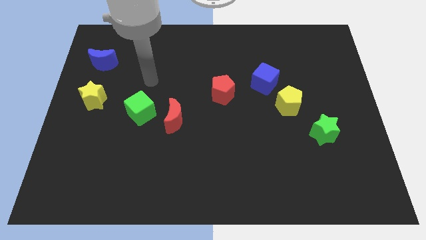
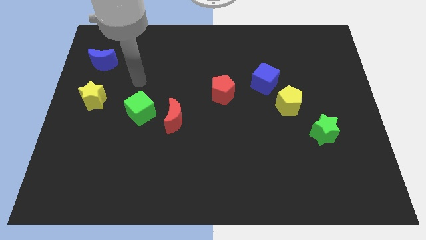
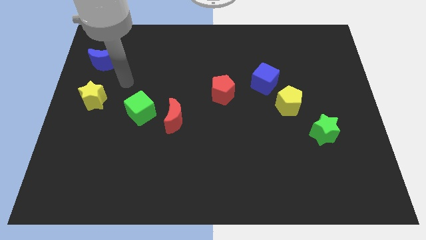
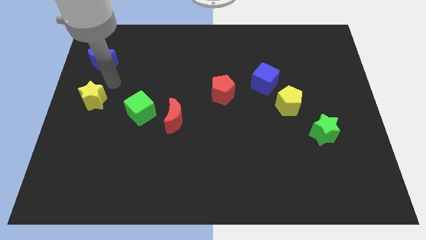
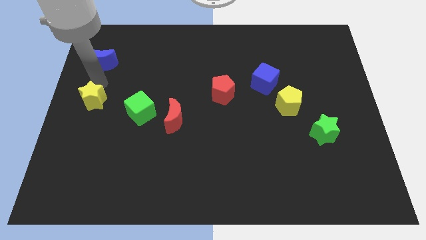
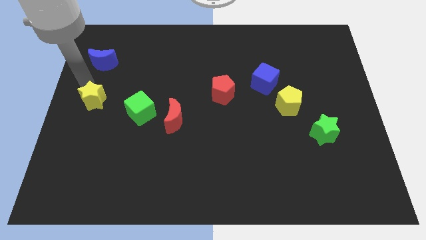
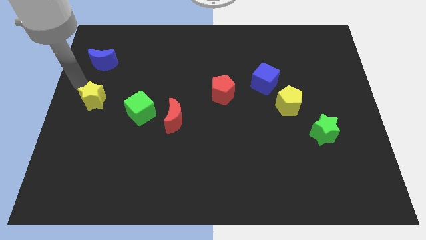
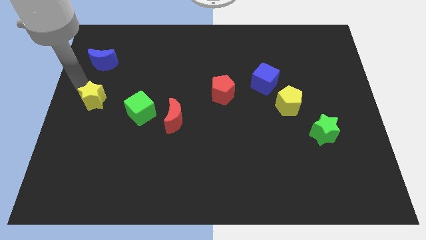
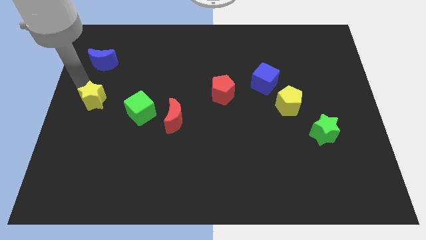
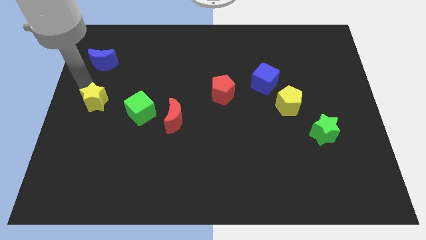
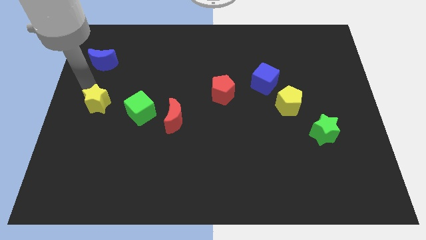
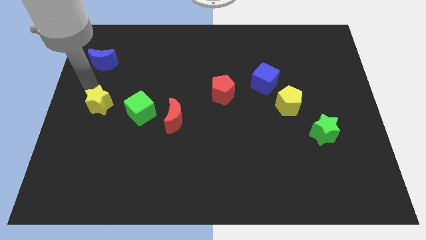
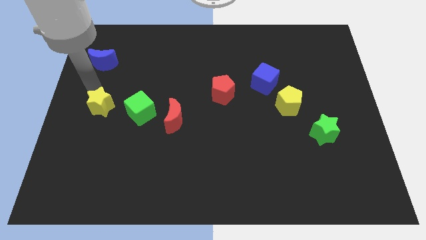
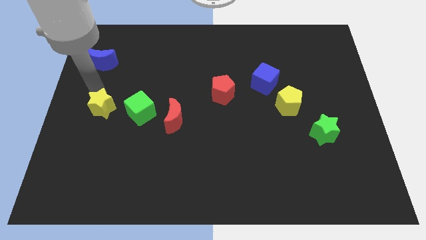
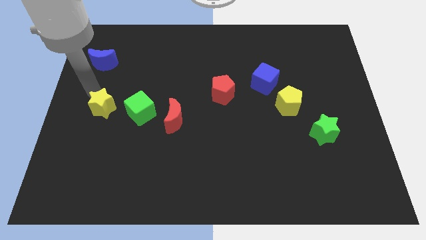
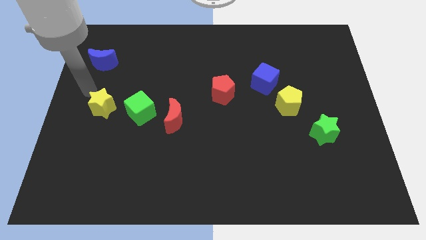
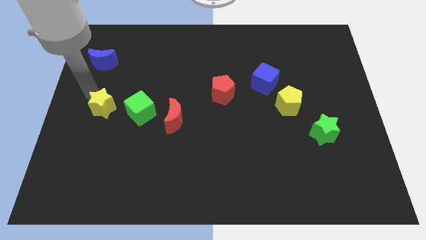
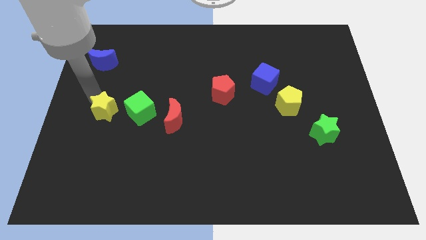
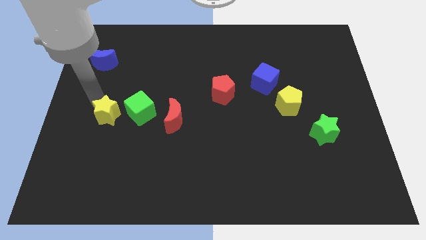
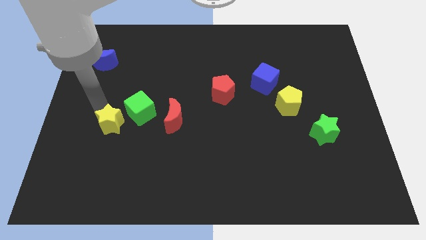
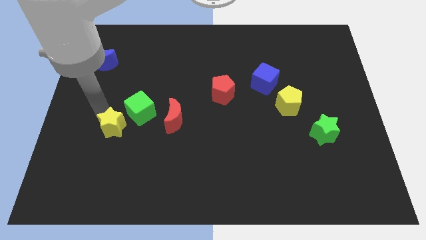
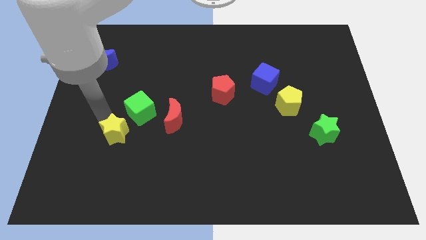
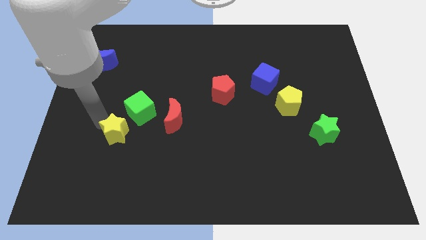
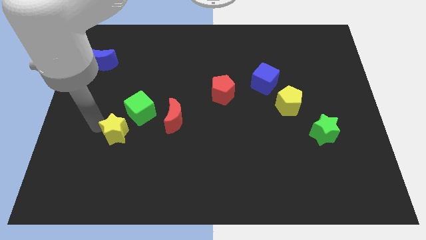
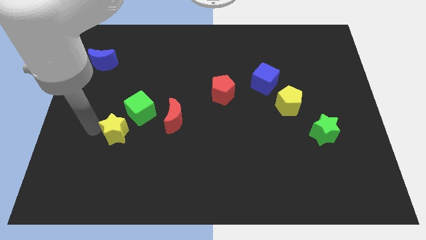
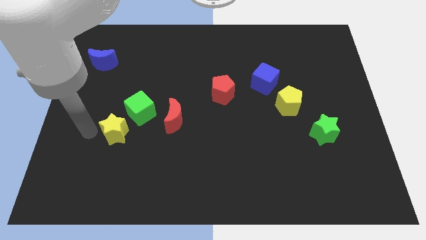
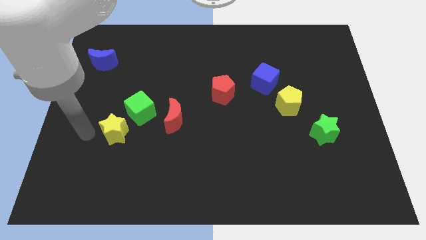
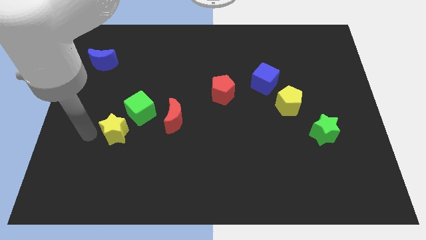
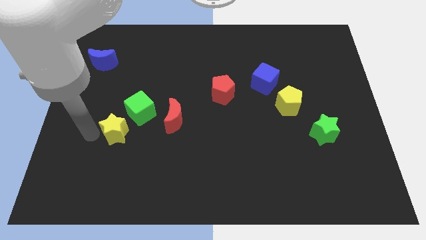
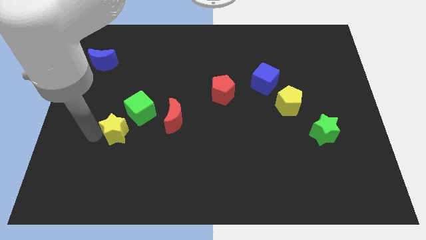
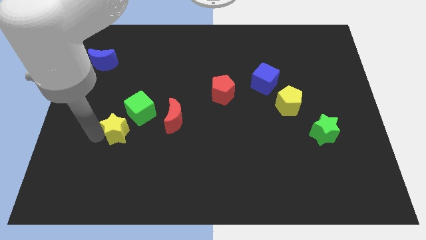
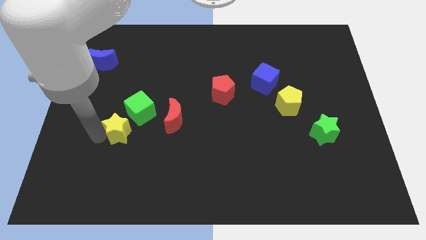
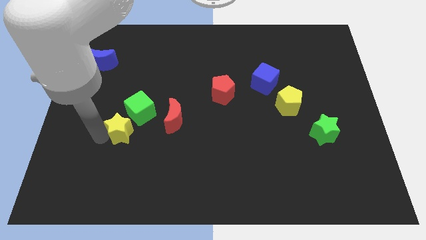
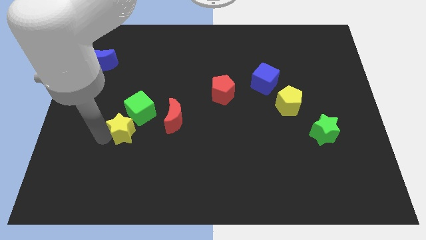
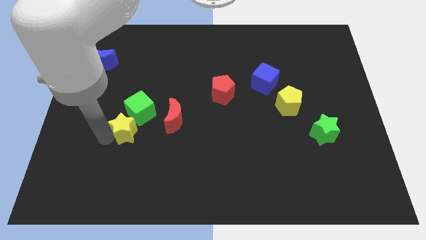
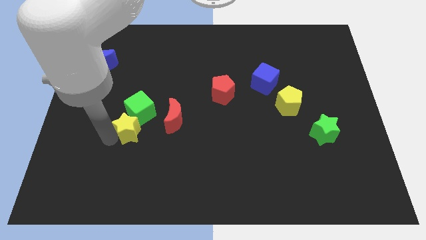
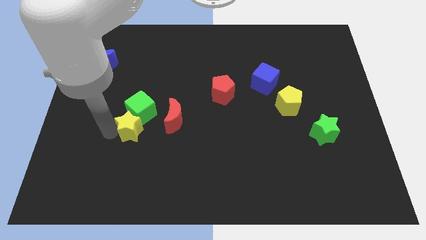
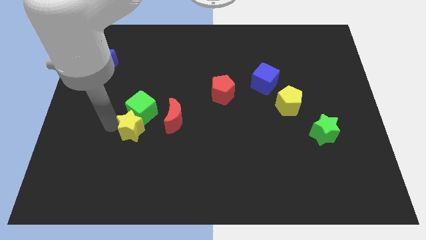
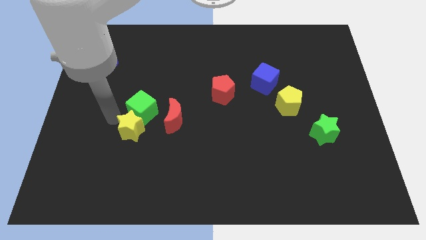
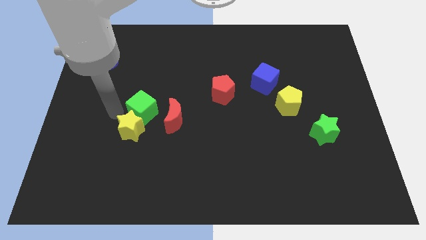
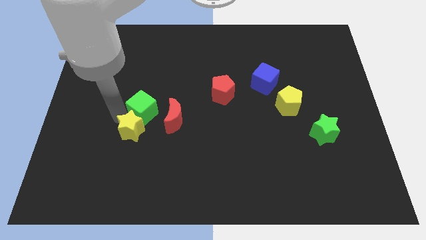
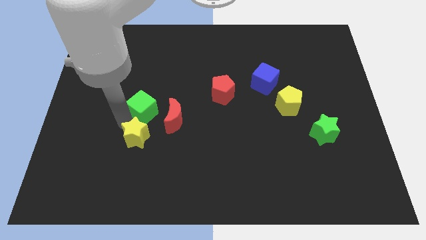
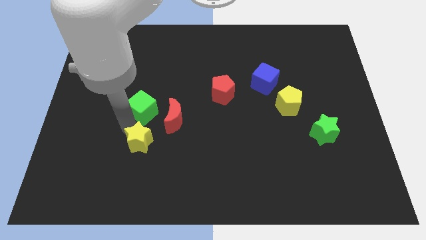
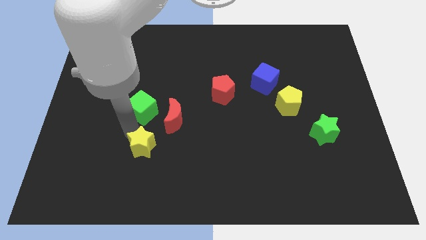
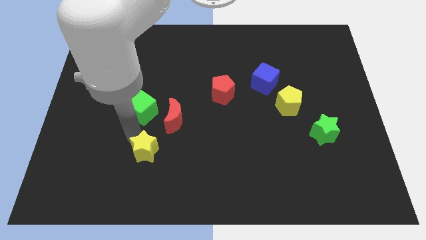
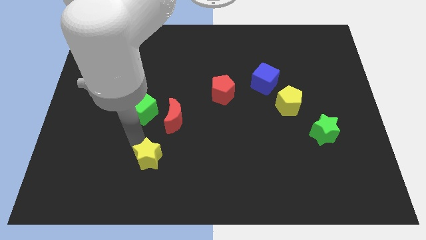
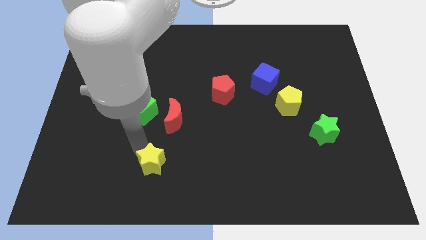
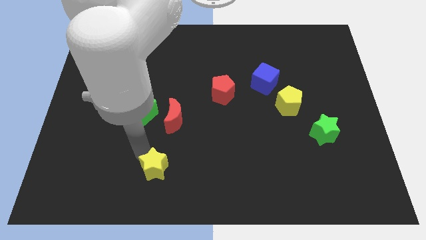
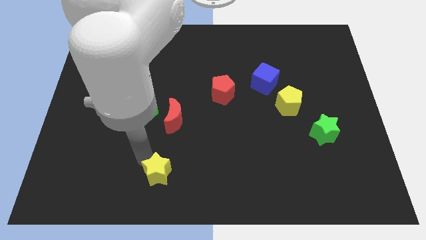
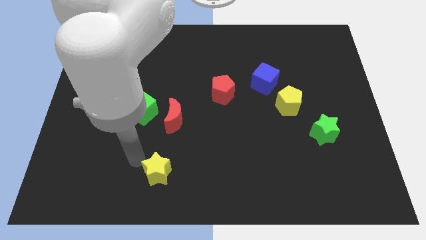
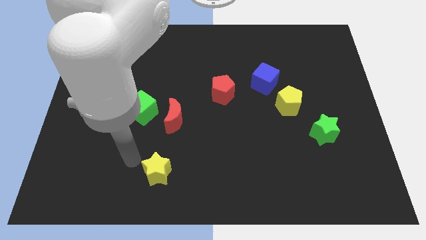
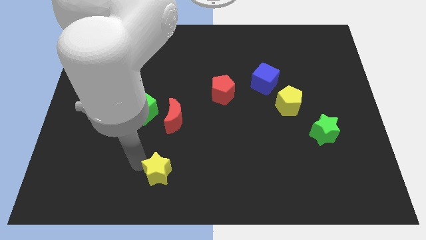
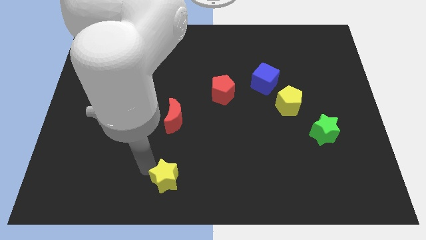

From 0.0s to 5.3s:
push the yellow star to the bottom side

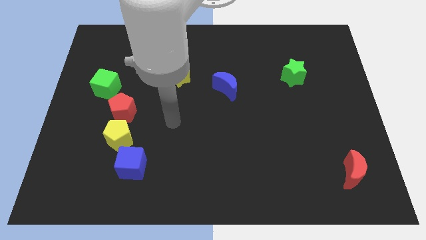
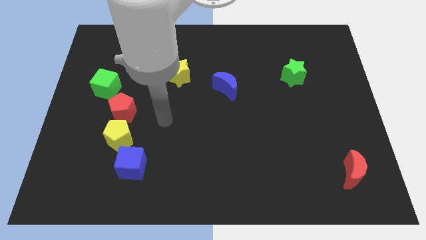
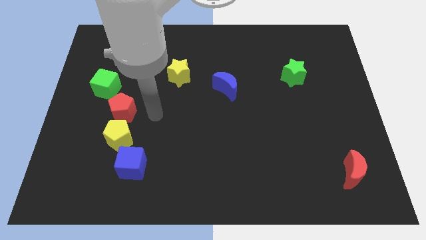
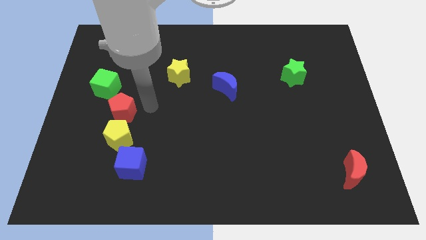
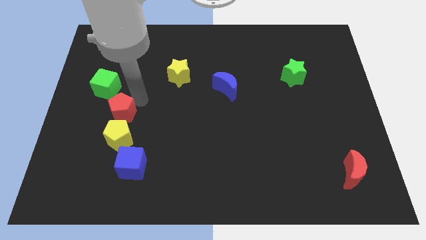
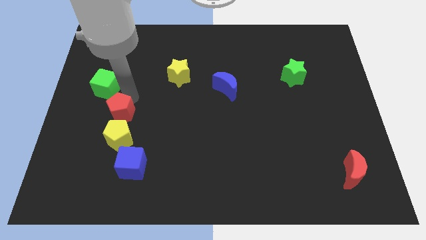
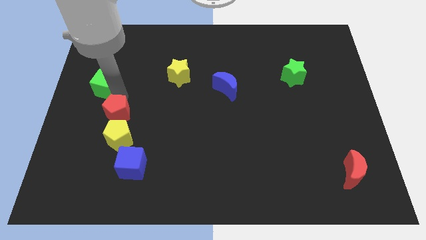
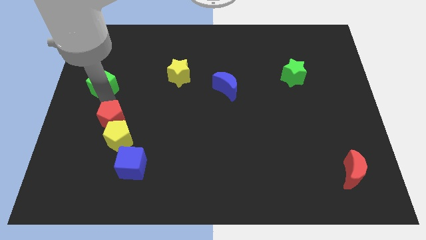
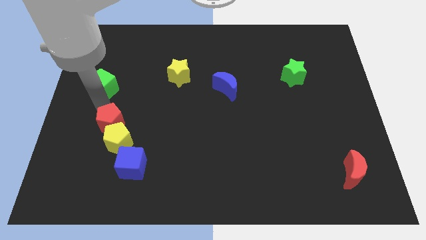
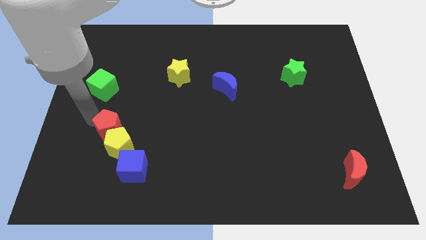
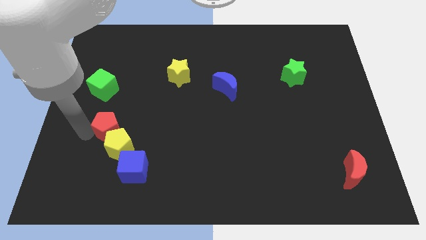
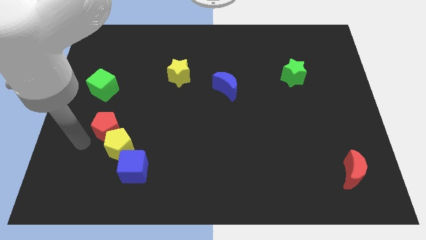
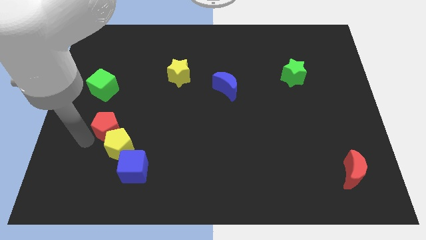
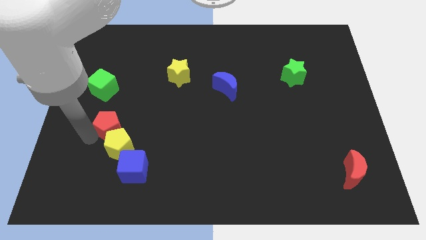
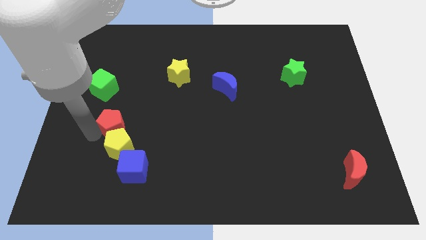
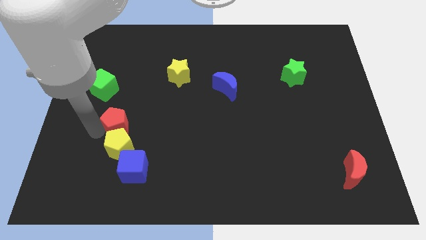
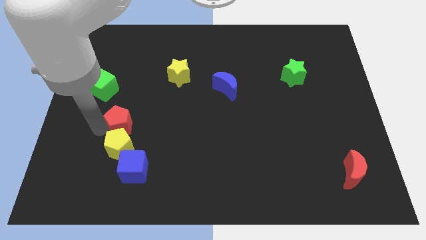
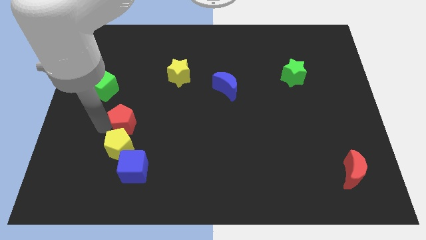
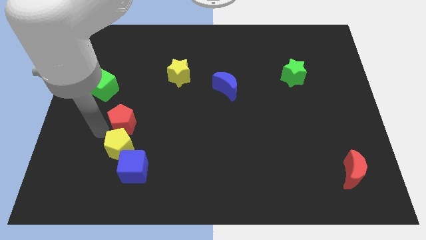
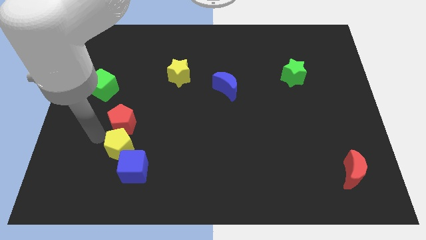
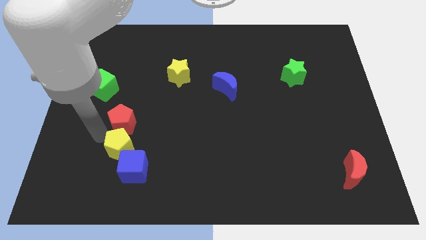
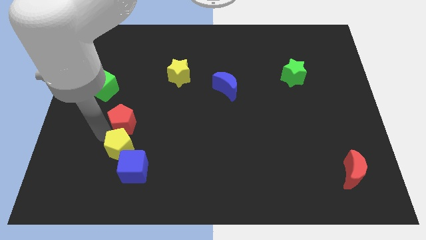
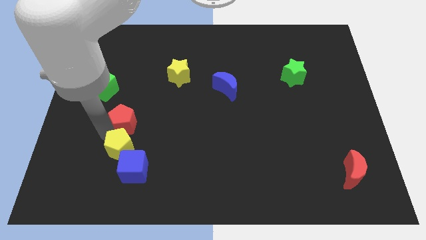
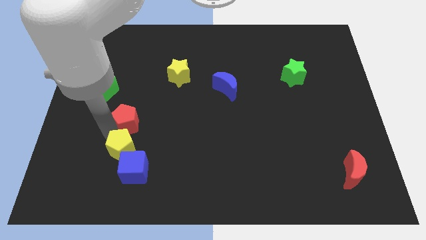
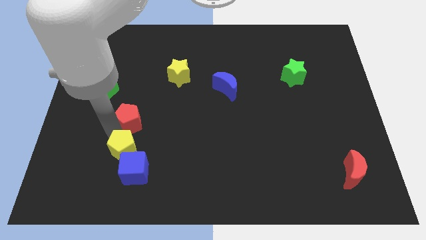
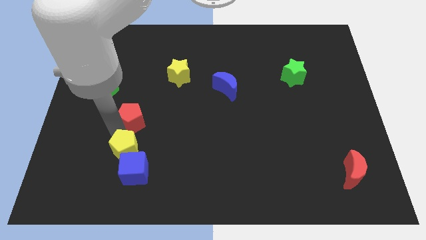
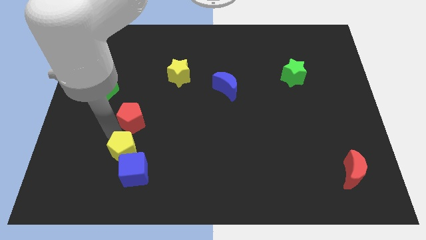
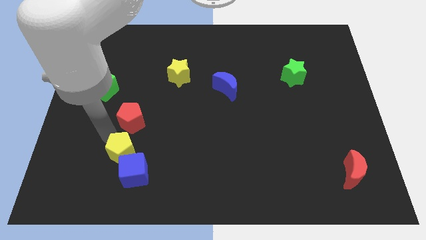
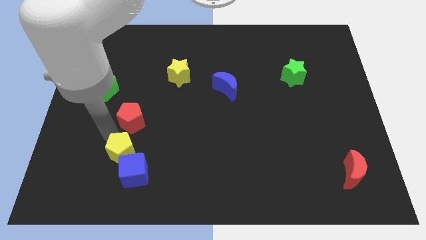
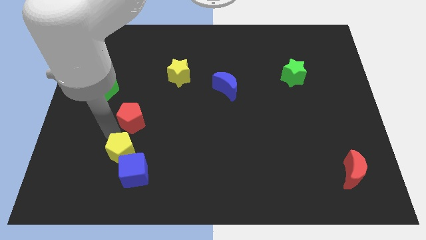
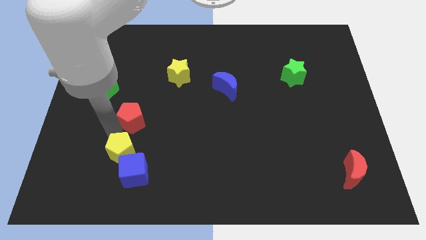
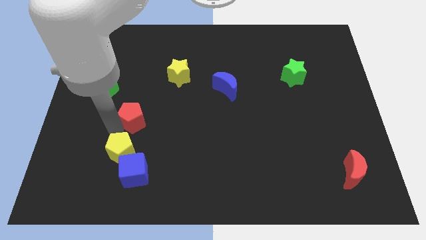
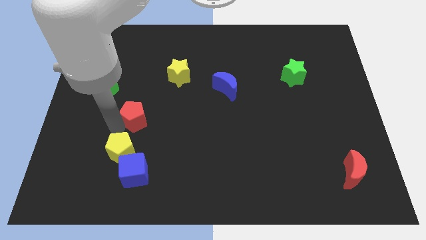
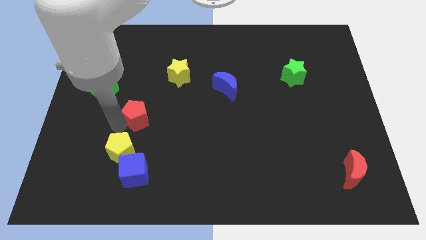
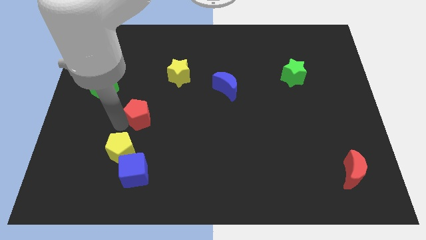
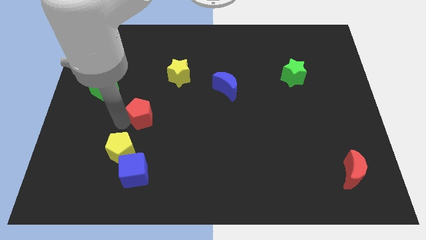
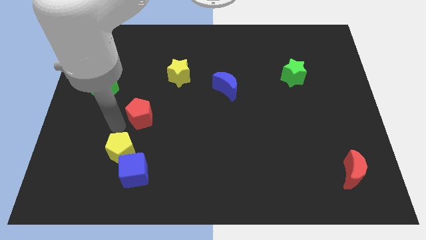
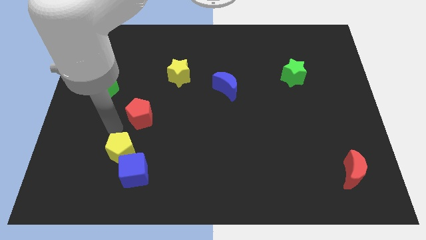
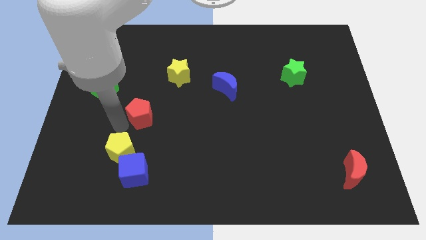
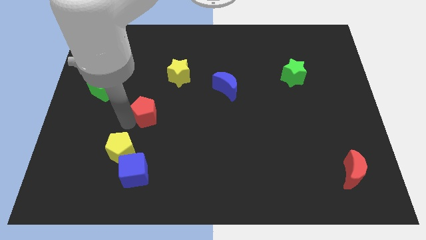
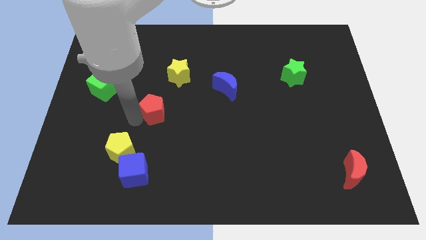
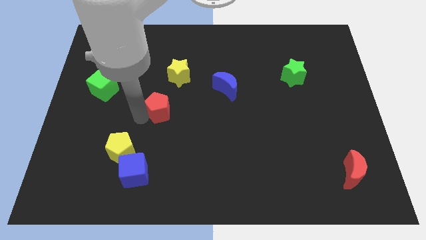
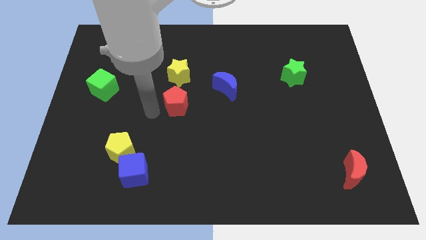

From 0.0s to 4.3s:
slide the red pentagon to the middle of the board
